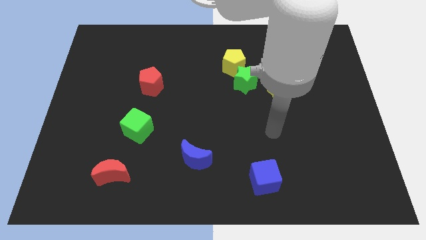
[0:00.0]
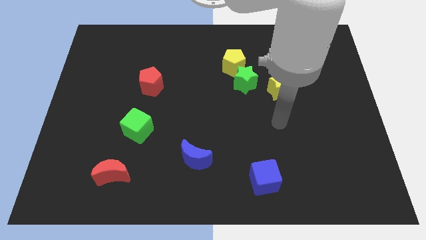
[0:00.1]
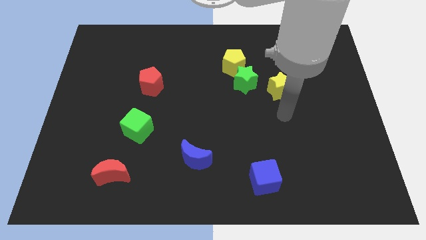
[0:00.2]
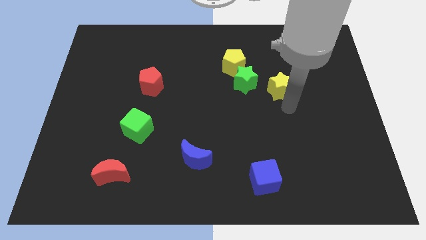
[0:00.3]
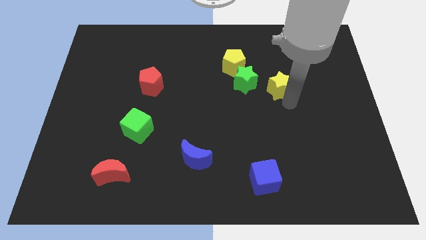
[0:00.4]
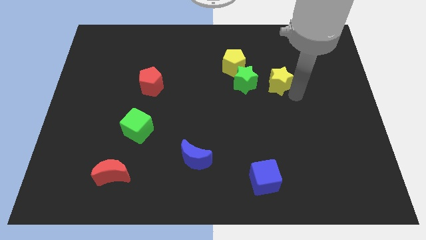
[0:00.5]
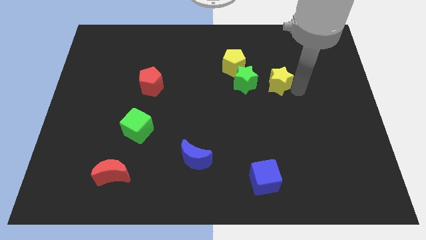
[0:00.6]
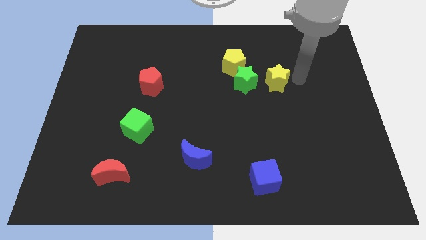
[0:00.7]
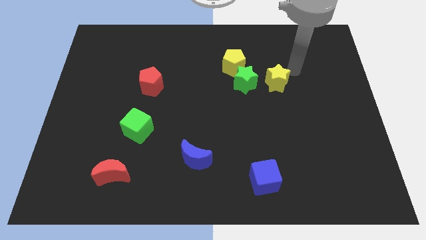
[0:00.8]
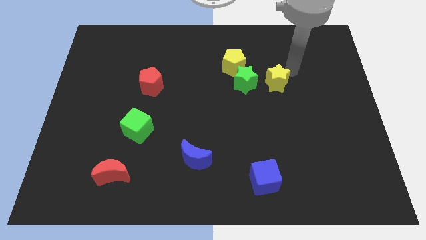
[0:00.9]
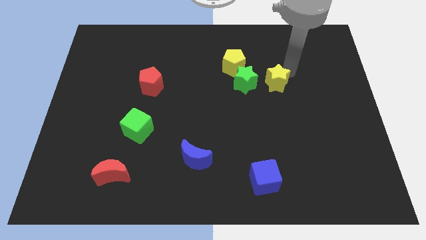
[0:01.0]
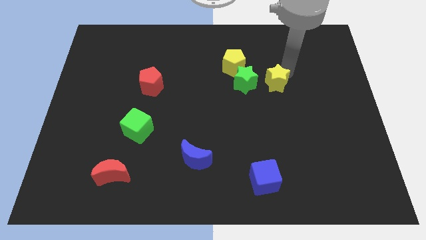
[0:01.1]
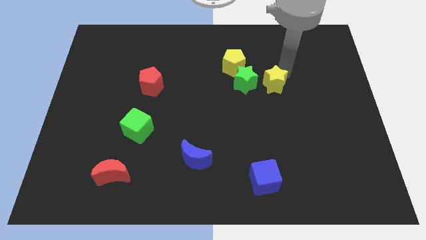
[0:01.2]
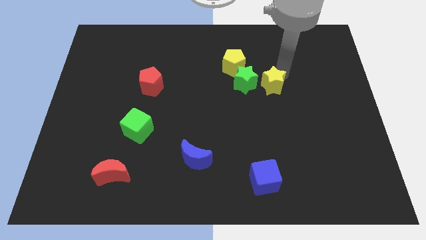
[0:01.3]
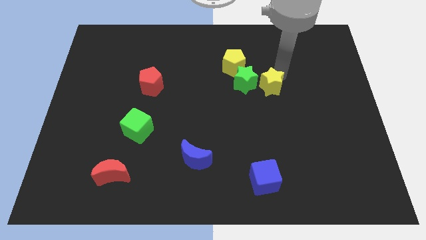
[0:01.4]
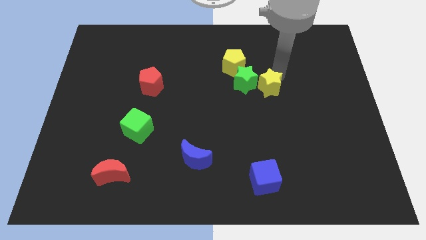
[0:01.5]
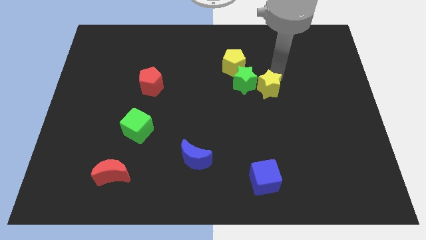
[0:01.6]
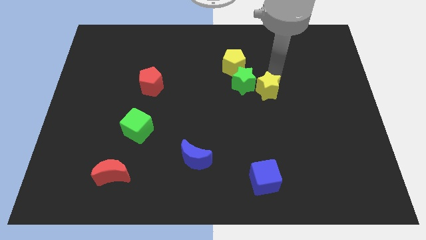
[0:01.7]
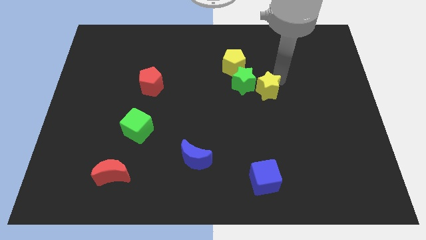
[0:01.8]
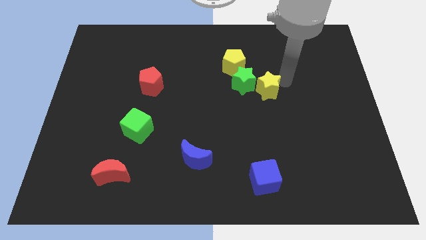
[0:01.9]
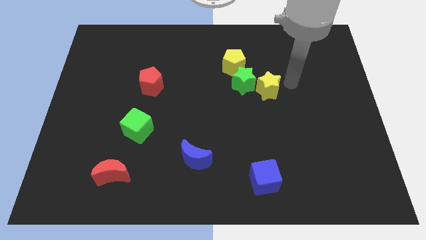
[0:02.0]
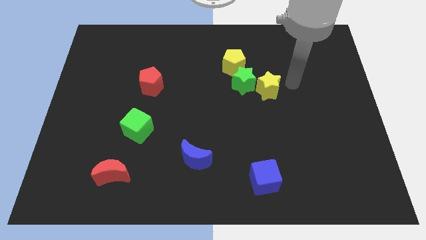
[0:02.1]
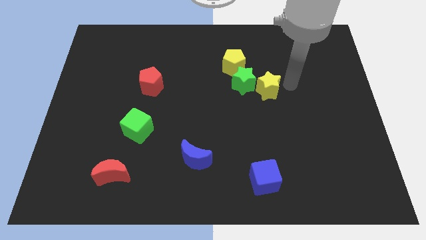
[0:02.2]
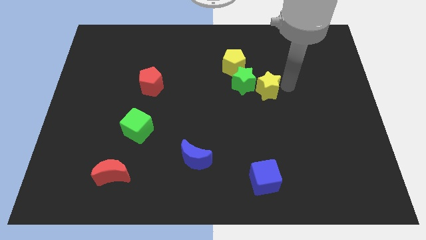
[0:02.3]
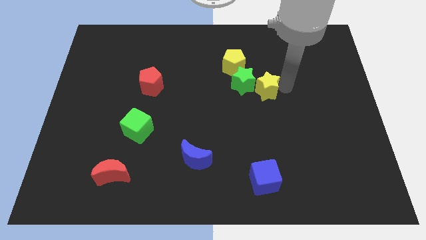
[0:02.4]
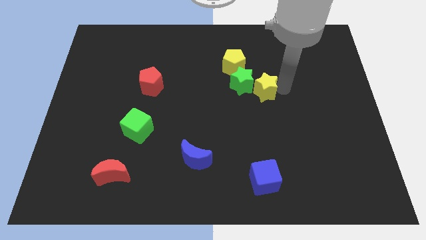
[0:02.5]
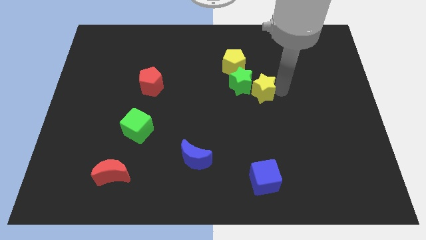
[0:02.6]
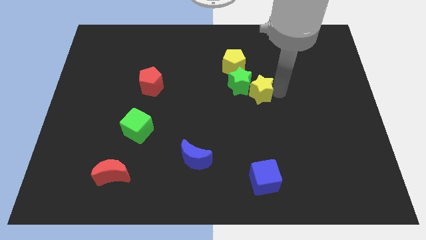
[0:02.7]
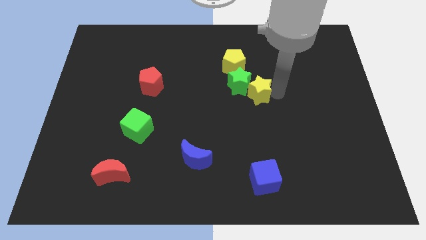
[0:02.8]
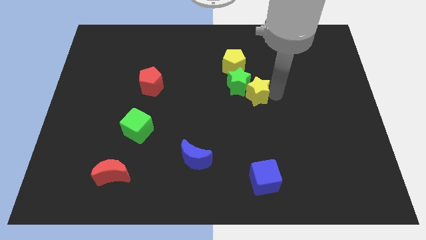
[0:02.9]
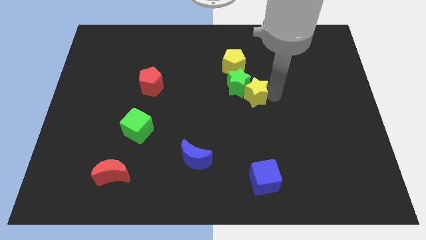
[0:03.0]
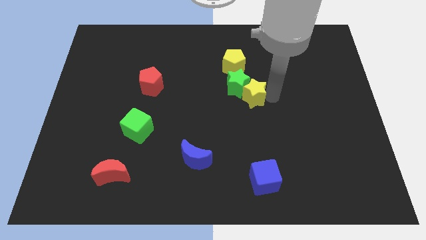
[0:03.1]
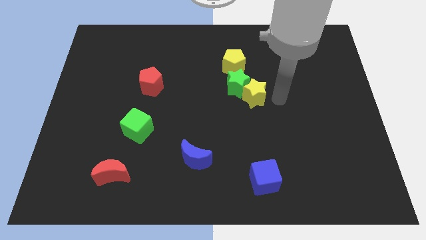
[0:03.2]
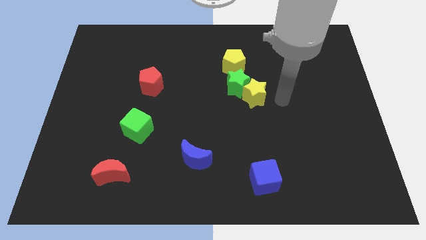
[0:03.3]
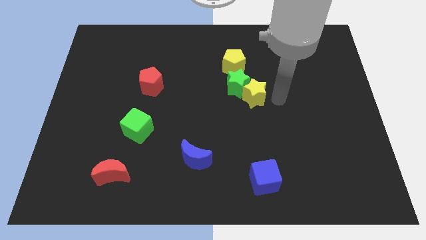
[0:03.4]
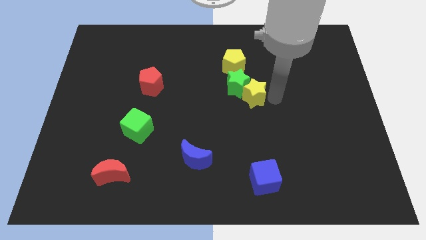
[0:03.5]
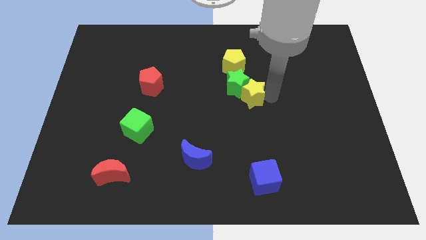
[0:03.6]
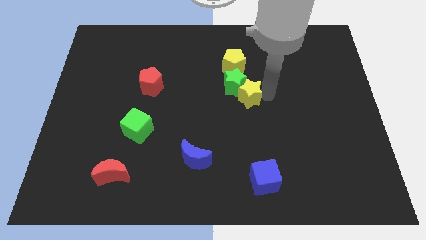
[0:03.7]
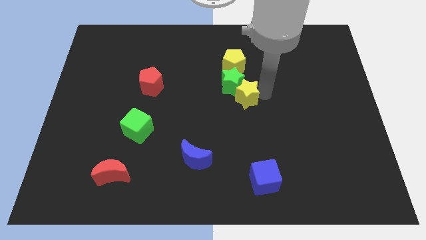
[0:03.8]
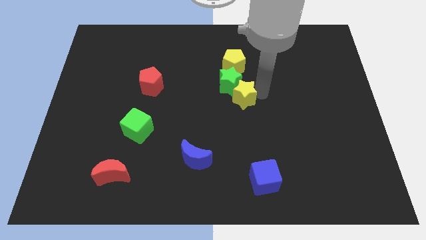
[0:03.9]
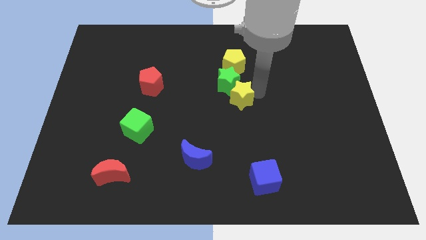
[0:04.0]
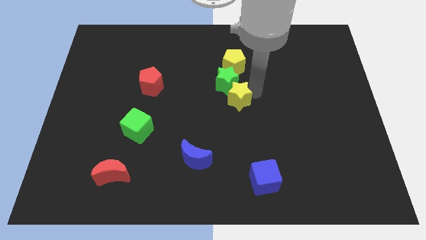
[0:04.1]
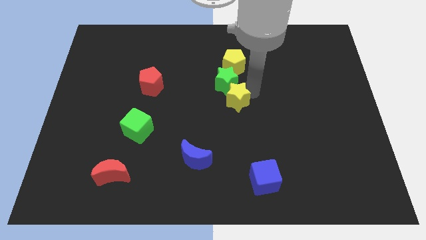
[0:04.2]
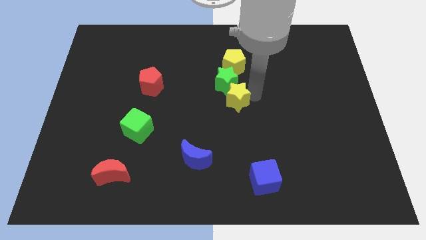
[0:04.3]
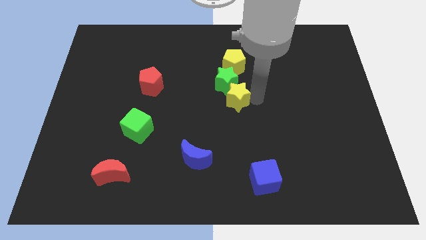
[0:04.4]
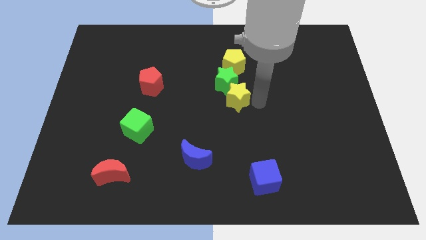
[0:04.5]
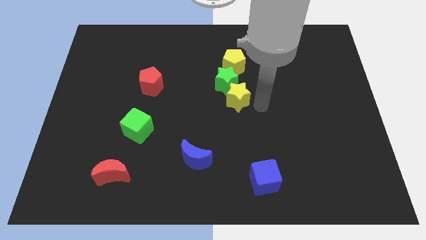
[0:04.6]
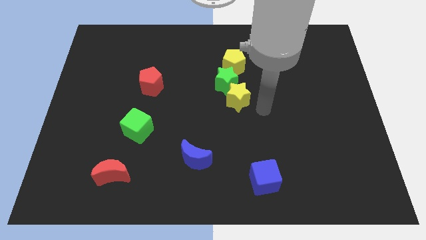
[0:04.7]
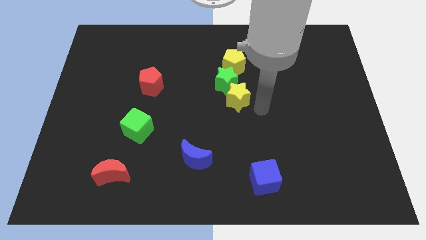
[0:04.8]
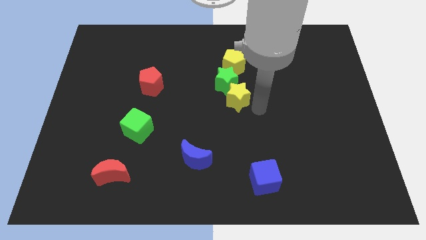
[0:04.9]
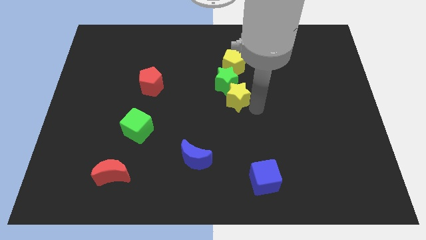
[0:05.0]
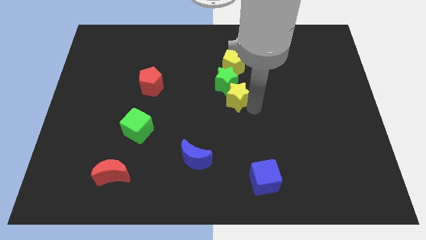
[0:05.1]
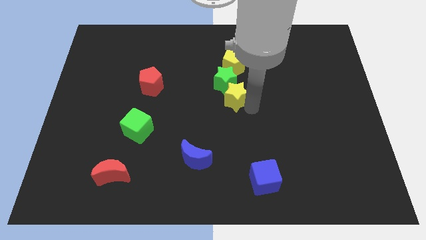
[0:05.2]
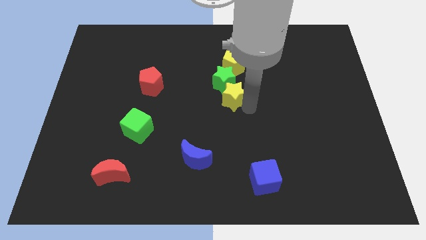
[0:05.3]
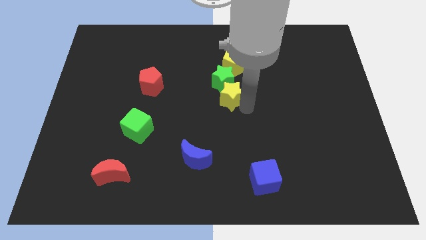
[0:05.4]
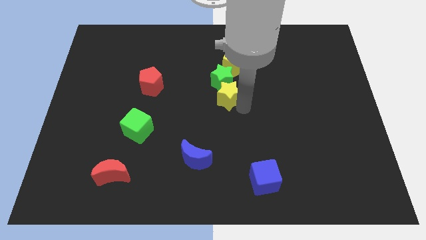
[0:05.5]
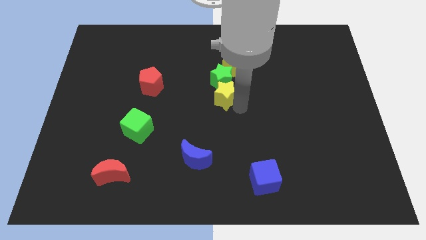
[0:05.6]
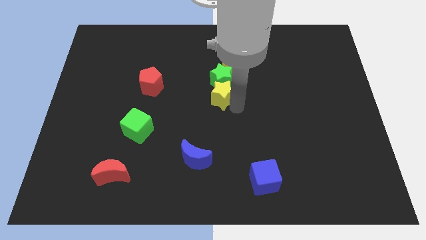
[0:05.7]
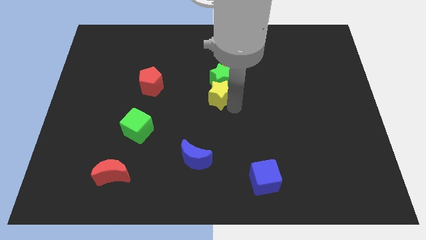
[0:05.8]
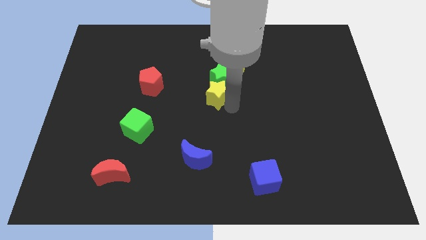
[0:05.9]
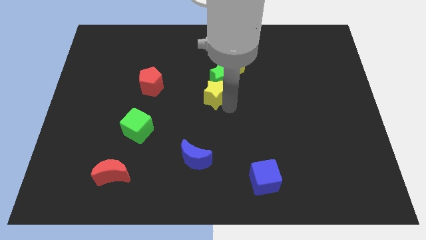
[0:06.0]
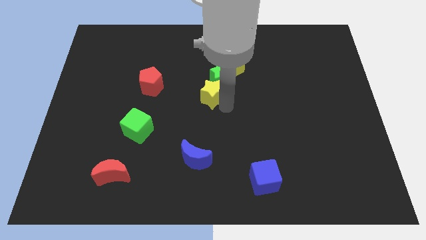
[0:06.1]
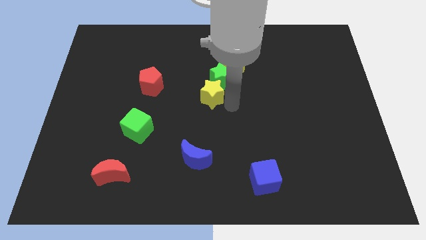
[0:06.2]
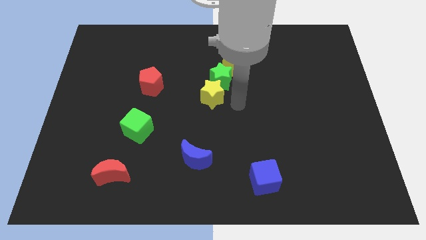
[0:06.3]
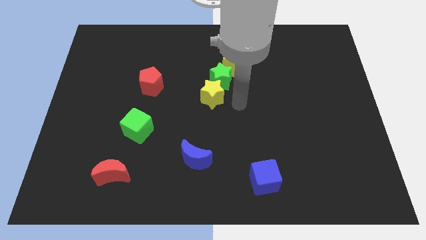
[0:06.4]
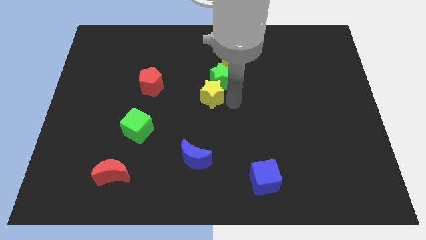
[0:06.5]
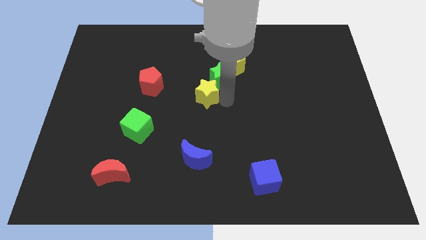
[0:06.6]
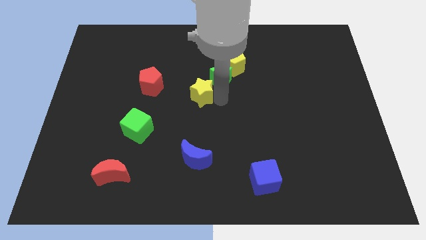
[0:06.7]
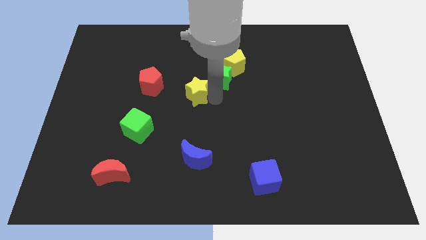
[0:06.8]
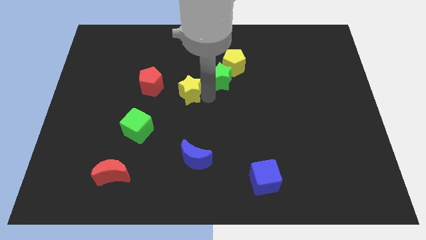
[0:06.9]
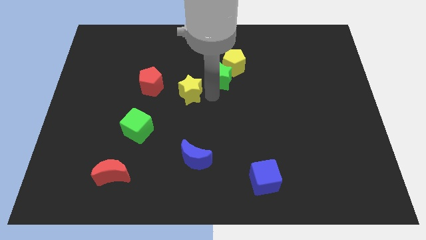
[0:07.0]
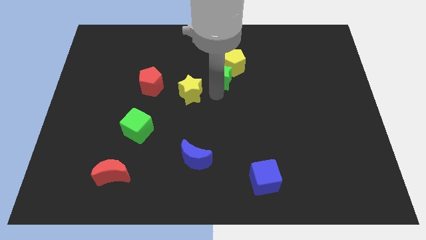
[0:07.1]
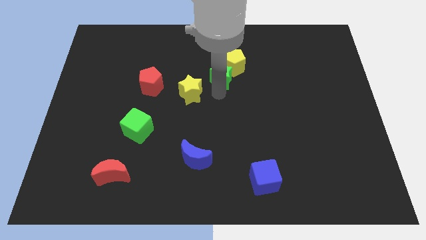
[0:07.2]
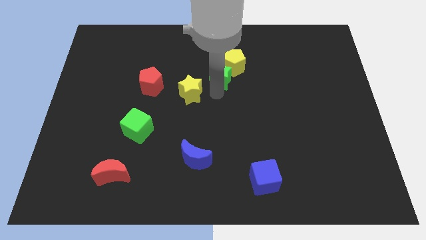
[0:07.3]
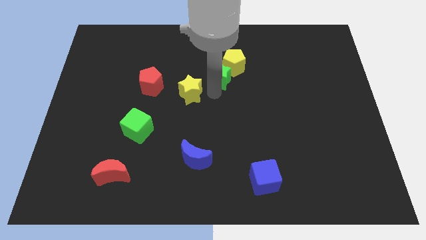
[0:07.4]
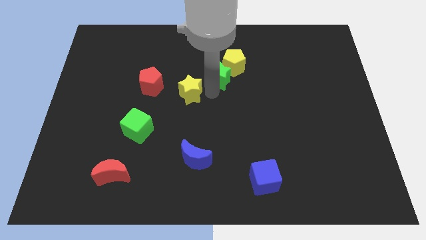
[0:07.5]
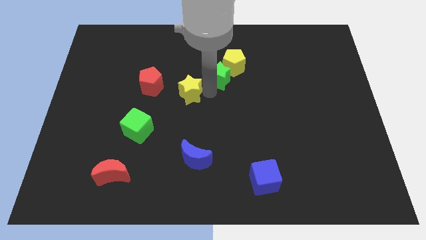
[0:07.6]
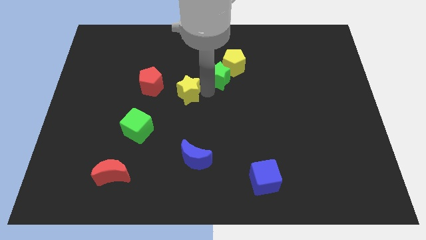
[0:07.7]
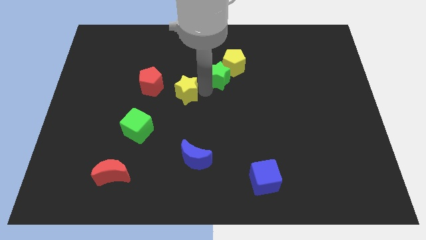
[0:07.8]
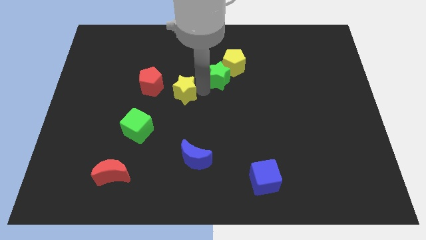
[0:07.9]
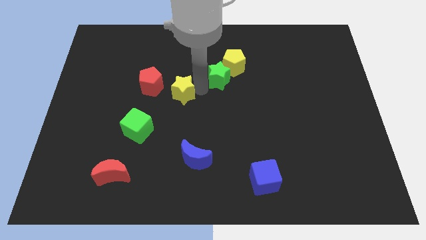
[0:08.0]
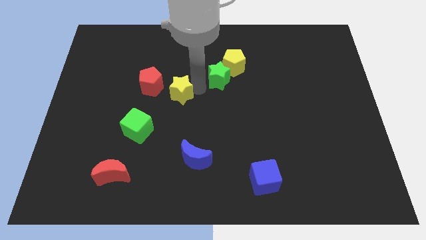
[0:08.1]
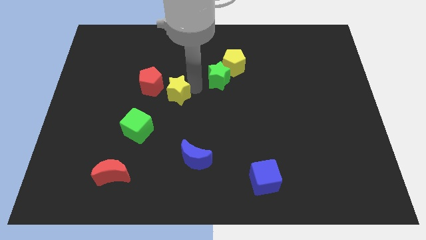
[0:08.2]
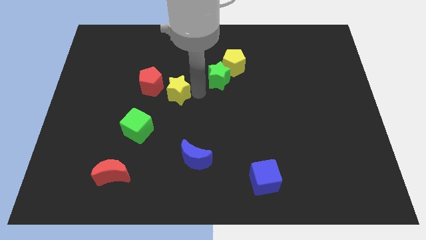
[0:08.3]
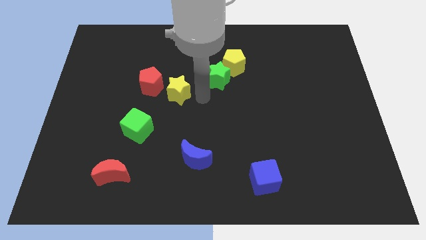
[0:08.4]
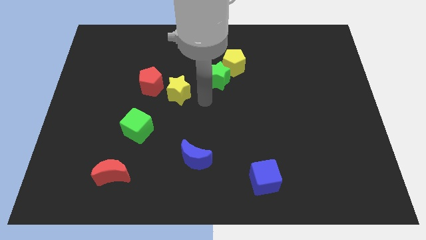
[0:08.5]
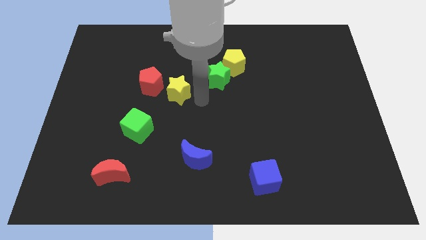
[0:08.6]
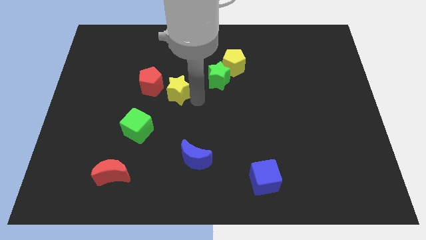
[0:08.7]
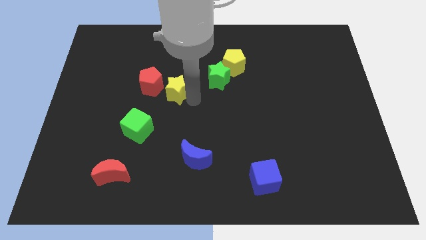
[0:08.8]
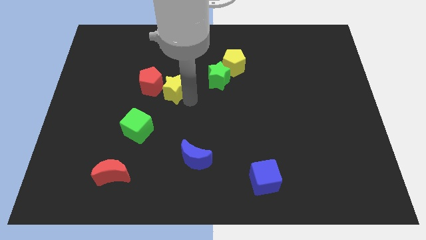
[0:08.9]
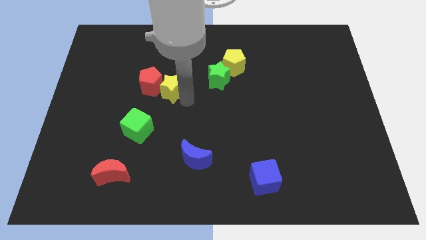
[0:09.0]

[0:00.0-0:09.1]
push the yellow star towards the red pentagon
